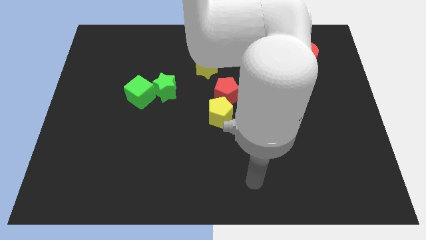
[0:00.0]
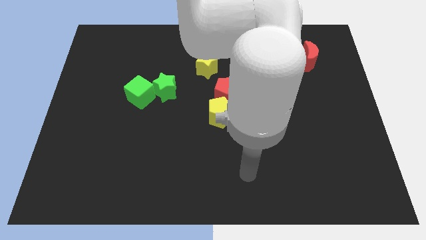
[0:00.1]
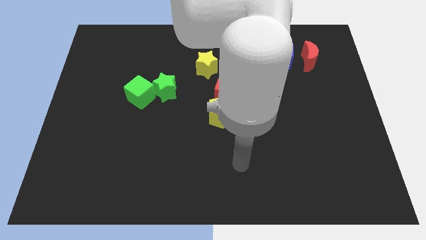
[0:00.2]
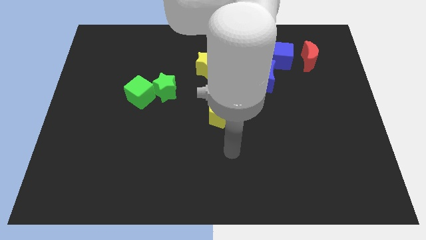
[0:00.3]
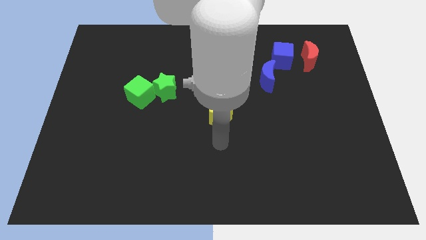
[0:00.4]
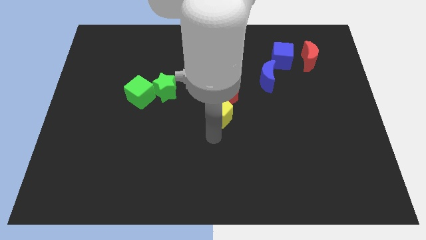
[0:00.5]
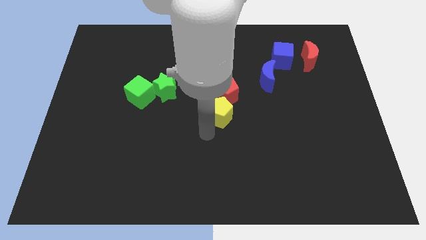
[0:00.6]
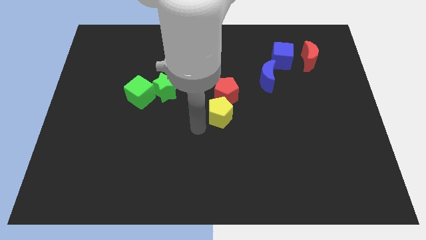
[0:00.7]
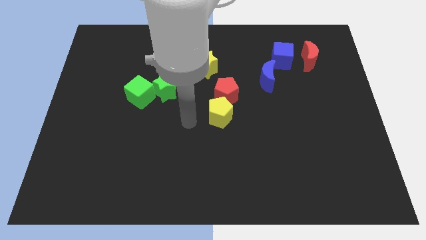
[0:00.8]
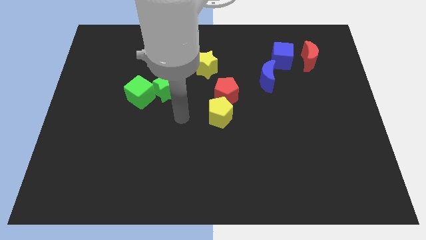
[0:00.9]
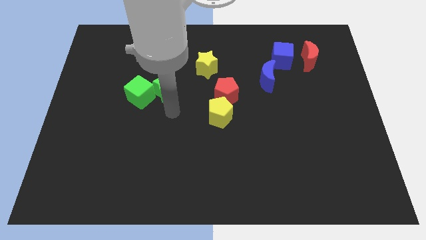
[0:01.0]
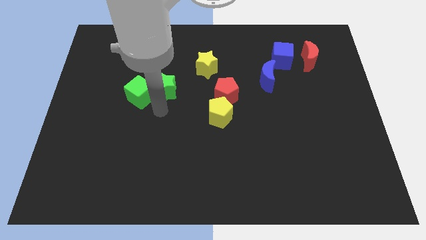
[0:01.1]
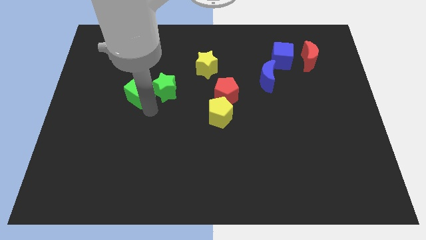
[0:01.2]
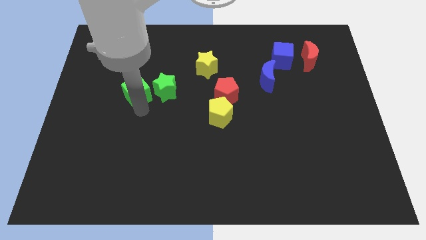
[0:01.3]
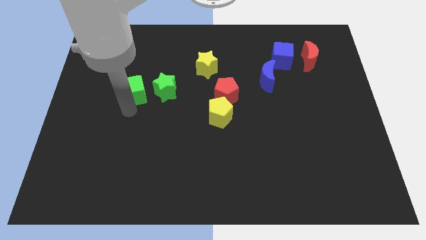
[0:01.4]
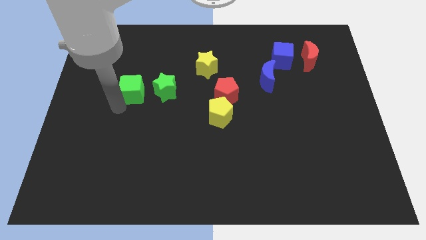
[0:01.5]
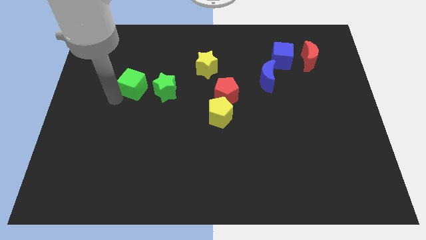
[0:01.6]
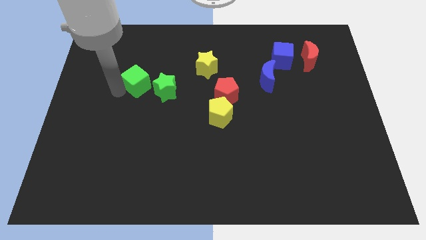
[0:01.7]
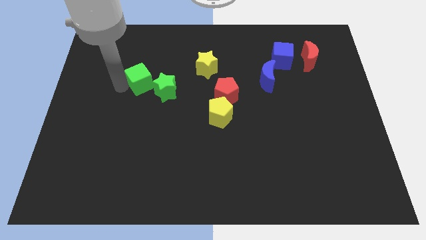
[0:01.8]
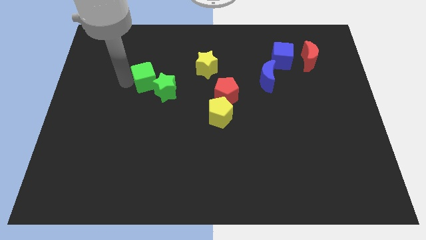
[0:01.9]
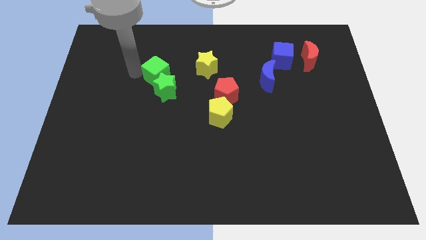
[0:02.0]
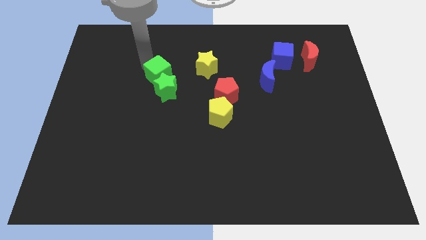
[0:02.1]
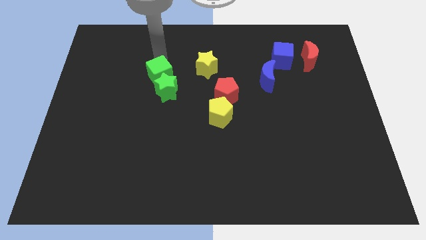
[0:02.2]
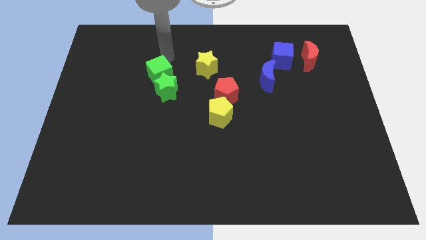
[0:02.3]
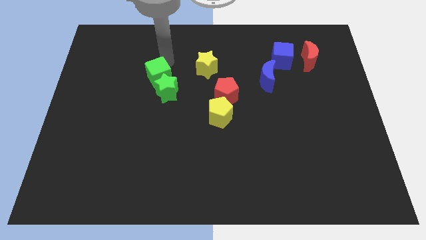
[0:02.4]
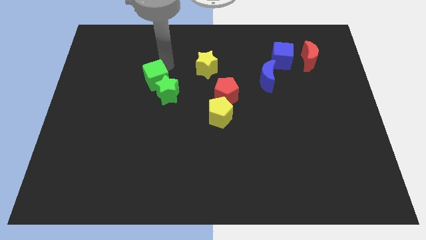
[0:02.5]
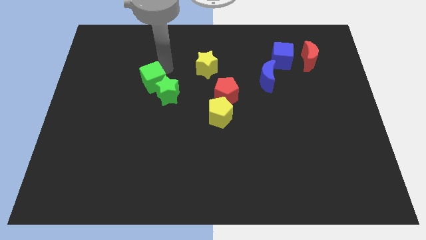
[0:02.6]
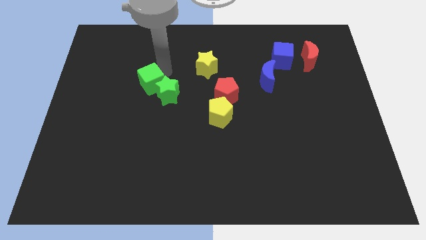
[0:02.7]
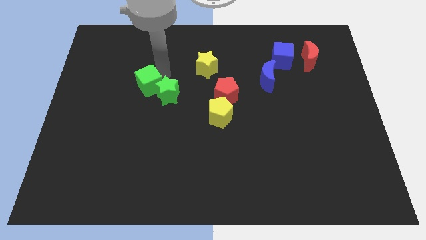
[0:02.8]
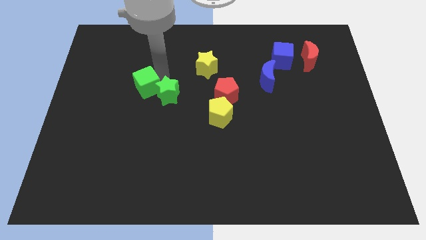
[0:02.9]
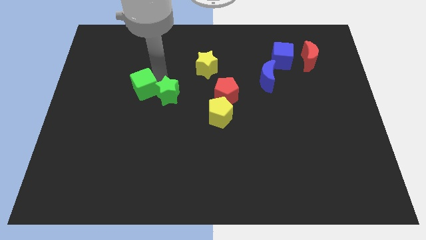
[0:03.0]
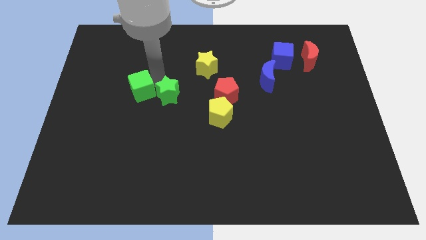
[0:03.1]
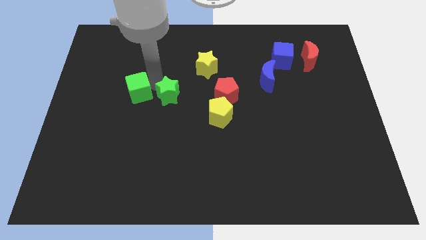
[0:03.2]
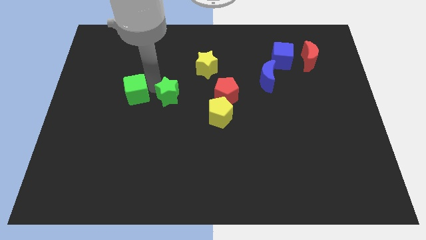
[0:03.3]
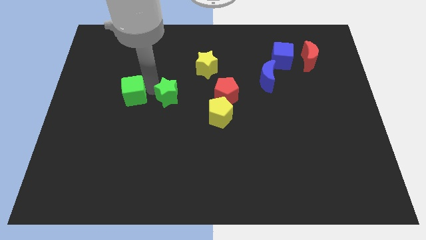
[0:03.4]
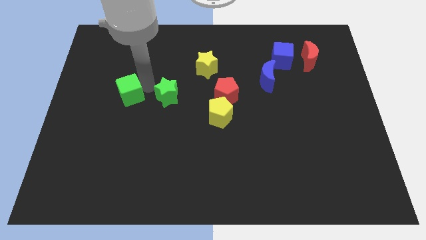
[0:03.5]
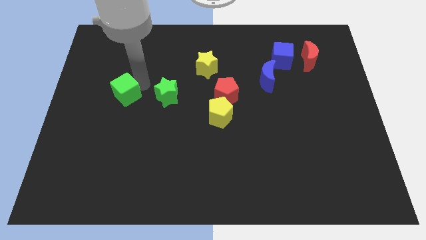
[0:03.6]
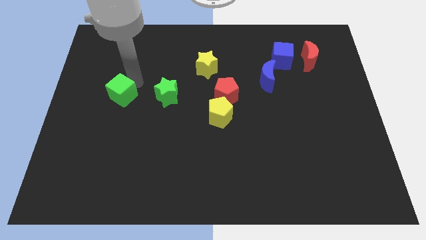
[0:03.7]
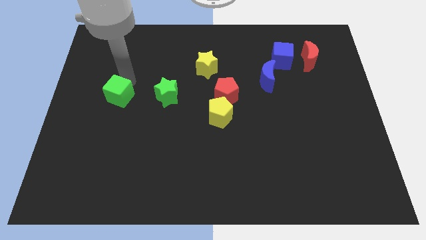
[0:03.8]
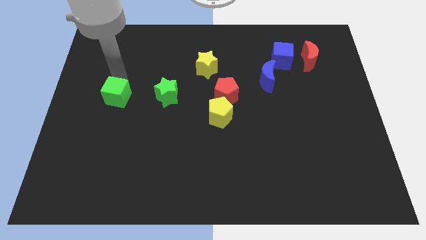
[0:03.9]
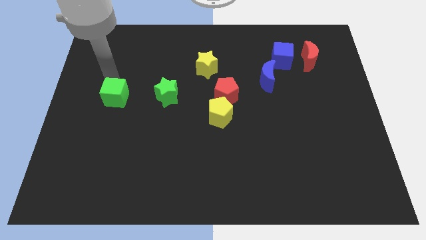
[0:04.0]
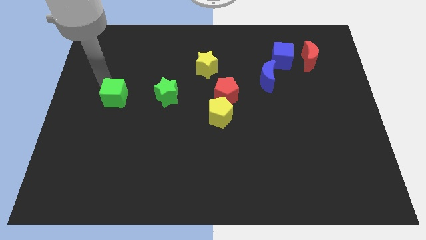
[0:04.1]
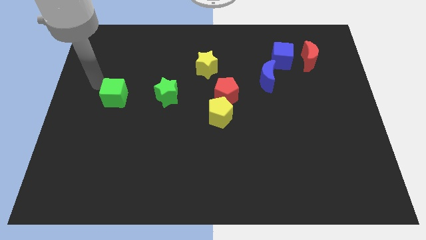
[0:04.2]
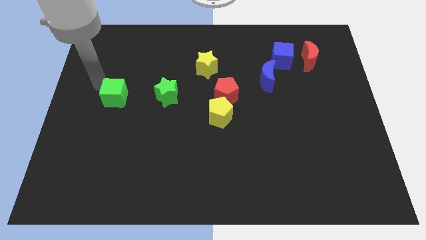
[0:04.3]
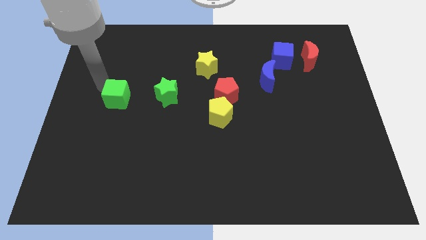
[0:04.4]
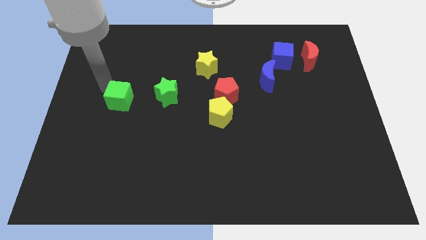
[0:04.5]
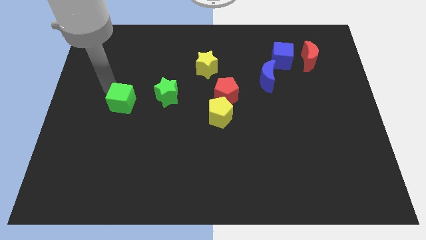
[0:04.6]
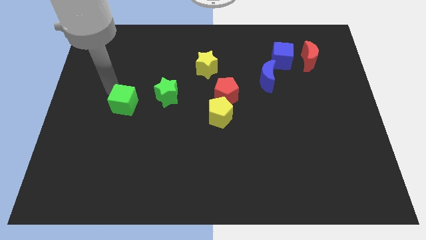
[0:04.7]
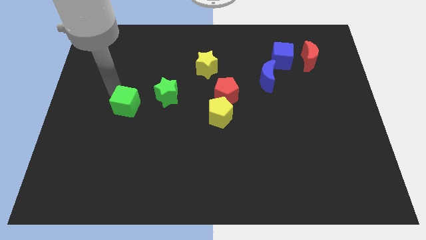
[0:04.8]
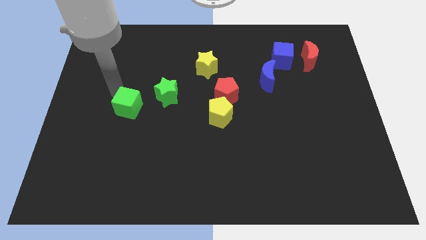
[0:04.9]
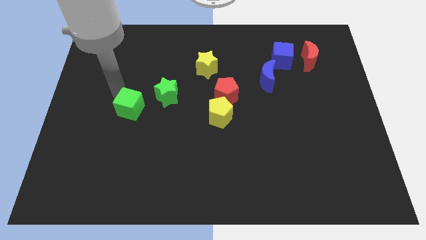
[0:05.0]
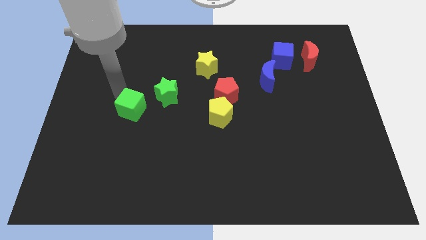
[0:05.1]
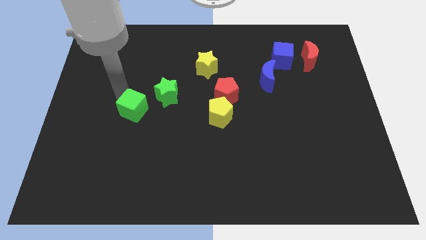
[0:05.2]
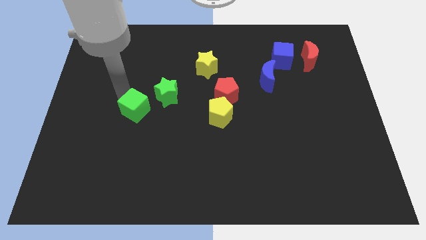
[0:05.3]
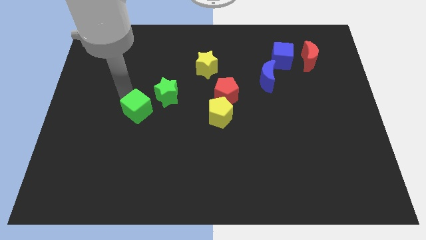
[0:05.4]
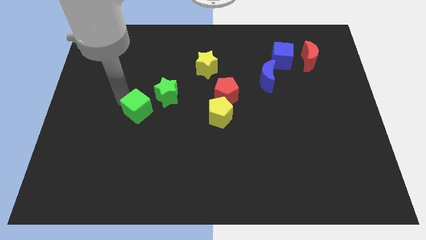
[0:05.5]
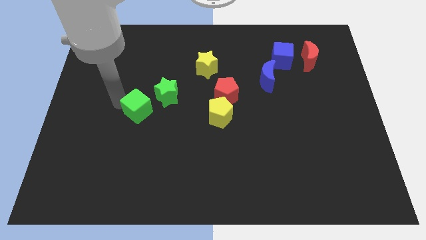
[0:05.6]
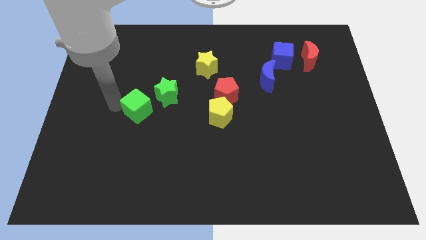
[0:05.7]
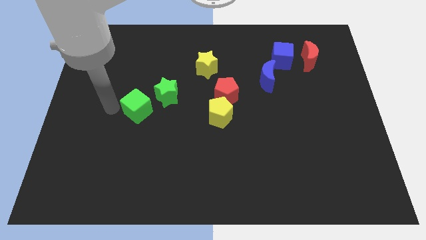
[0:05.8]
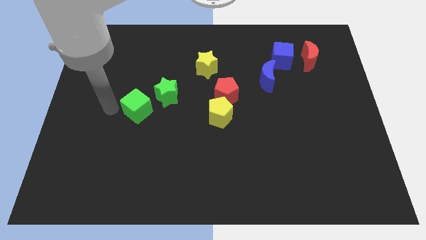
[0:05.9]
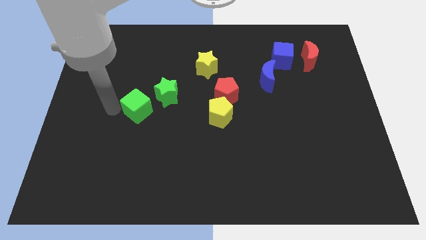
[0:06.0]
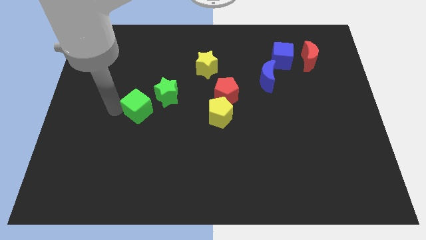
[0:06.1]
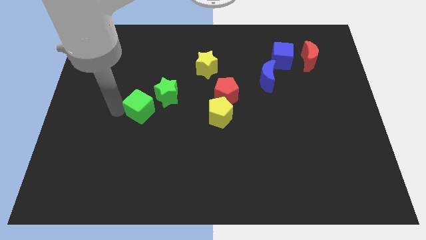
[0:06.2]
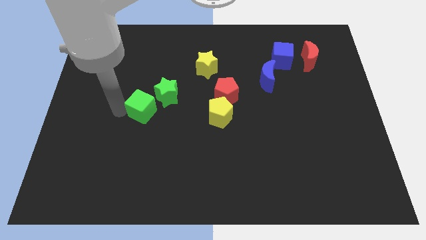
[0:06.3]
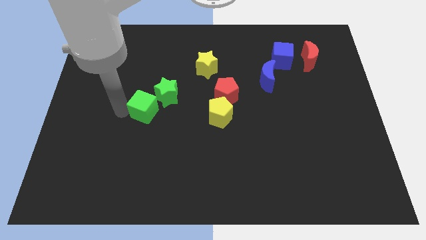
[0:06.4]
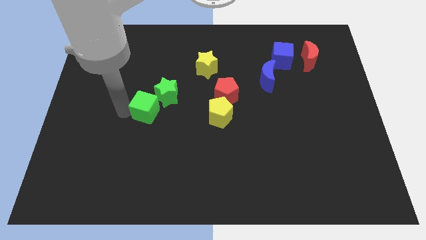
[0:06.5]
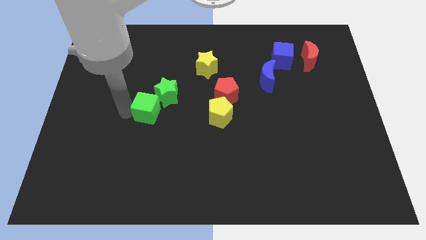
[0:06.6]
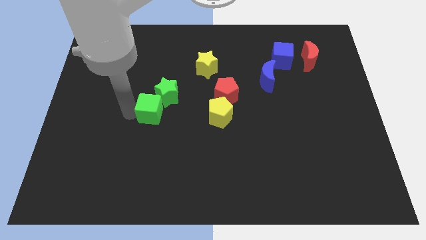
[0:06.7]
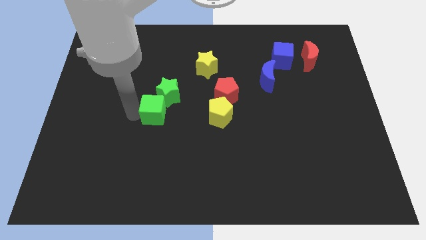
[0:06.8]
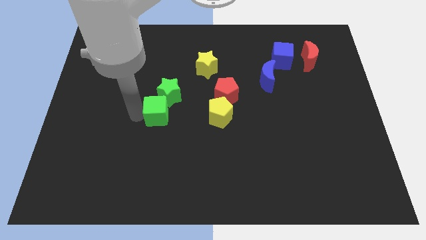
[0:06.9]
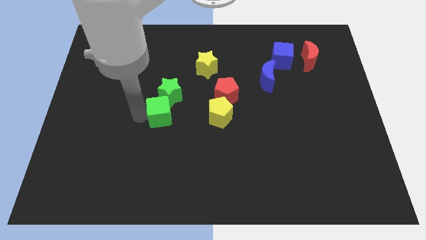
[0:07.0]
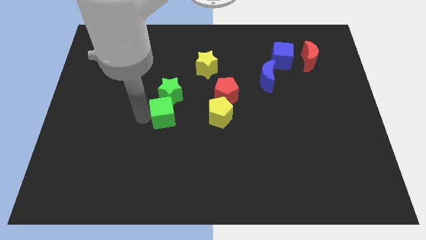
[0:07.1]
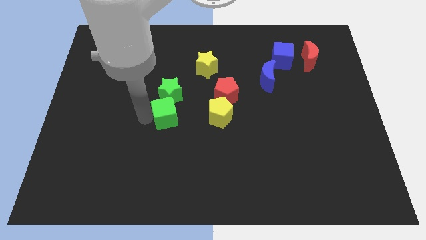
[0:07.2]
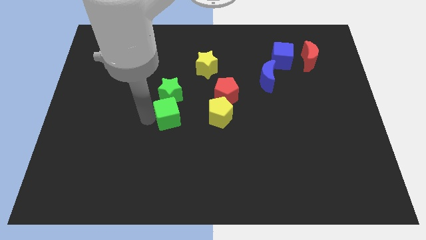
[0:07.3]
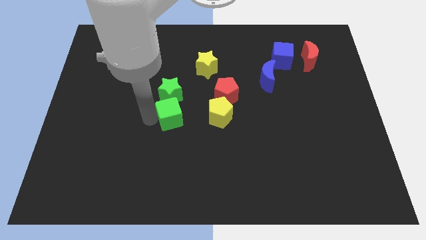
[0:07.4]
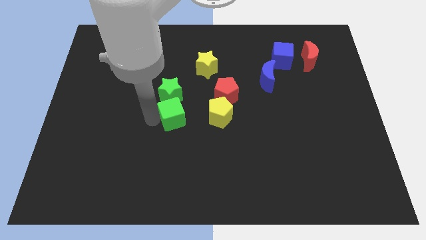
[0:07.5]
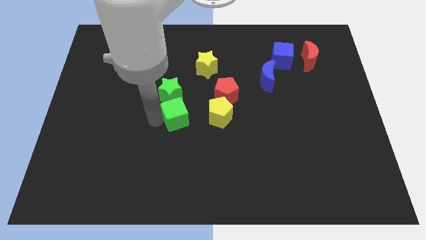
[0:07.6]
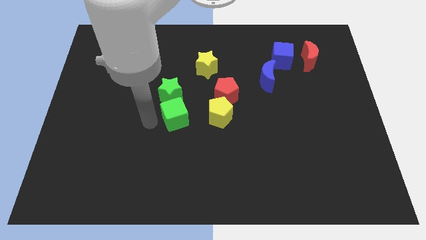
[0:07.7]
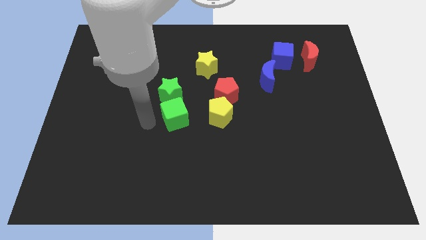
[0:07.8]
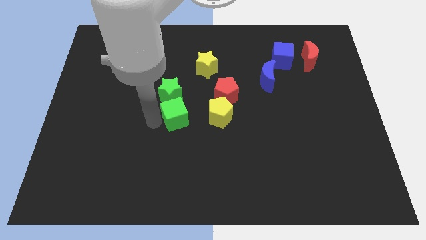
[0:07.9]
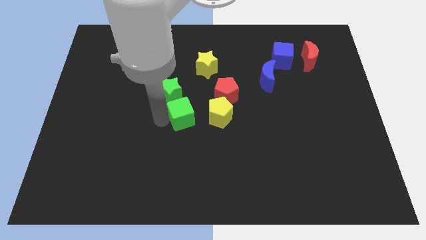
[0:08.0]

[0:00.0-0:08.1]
move the green cube to the bottom left of the red pentagon
